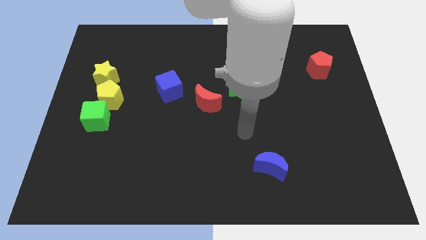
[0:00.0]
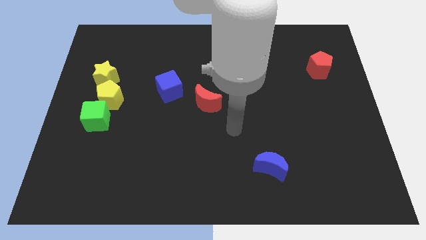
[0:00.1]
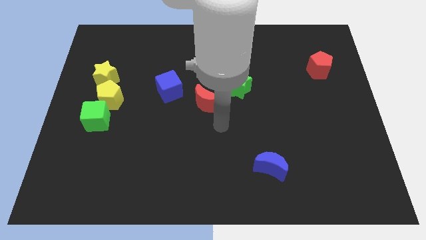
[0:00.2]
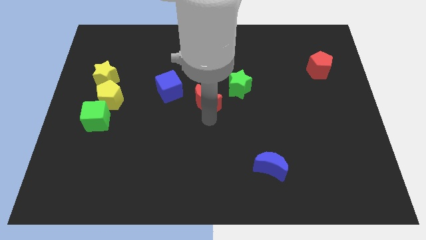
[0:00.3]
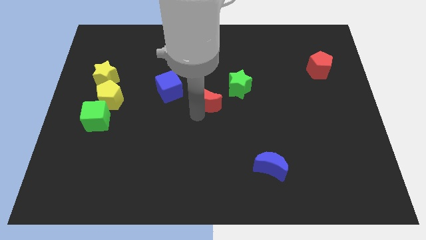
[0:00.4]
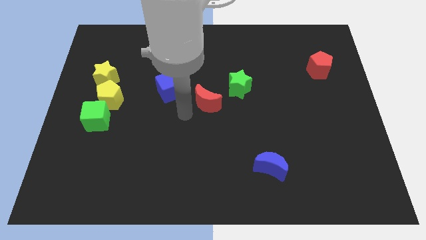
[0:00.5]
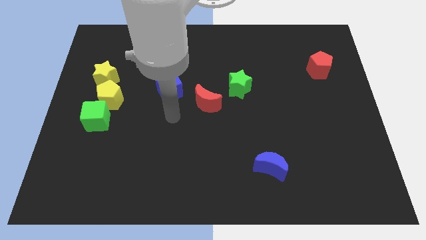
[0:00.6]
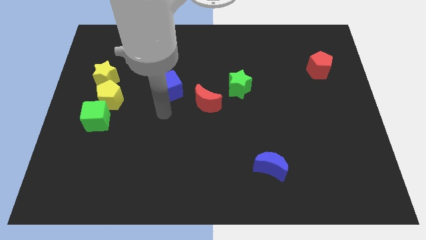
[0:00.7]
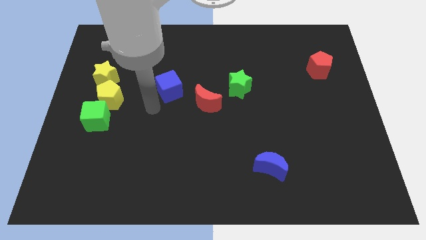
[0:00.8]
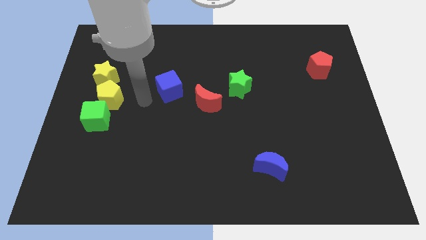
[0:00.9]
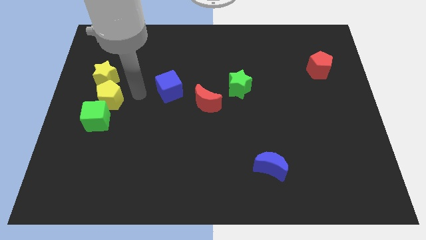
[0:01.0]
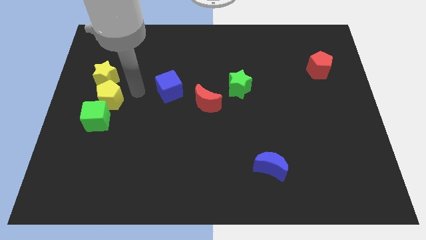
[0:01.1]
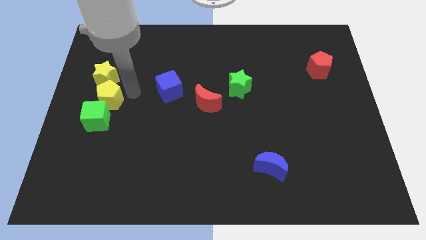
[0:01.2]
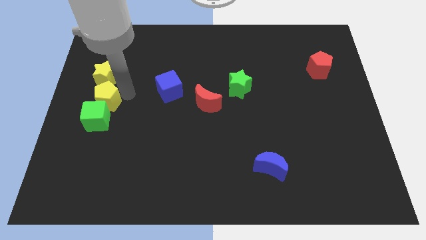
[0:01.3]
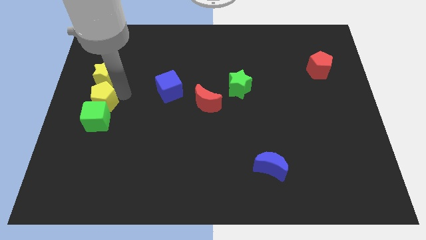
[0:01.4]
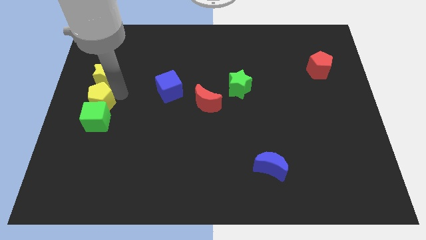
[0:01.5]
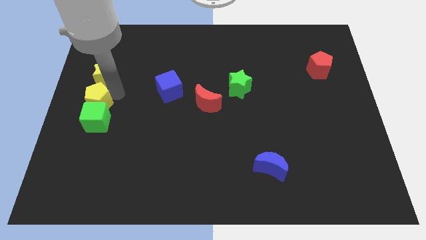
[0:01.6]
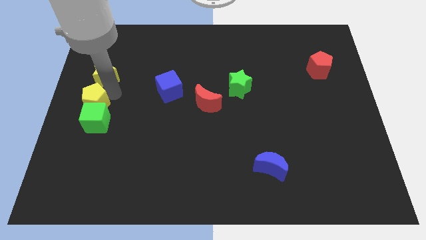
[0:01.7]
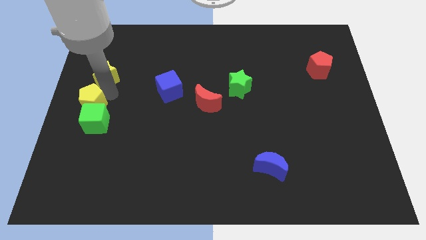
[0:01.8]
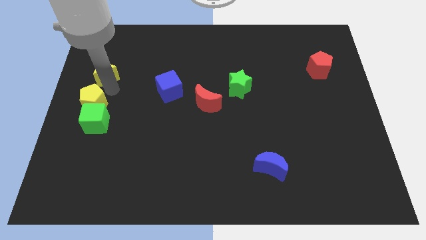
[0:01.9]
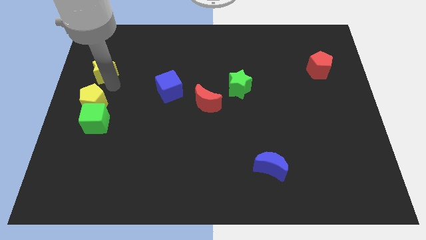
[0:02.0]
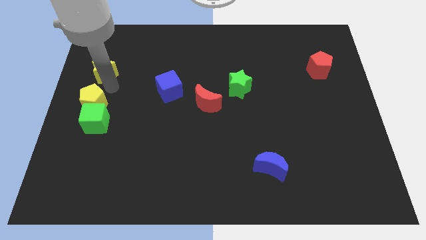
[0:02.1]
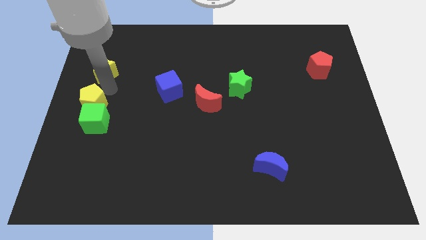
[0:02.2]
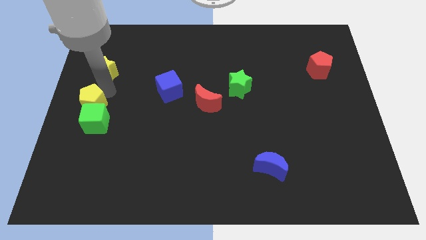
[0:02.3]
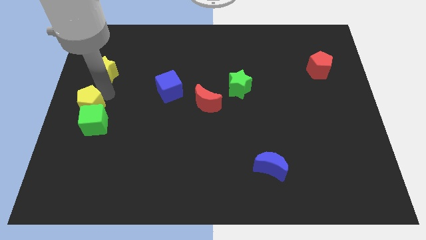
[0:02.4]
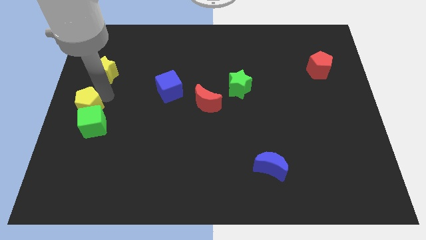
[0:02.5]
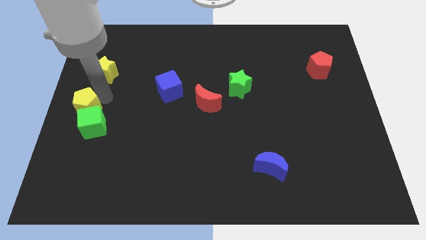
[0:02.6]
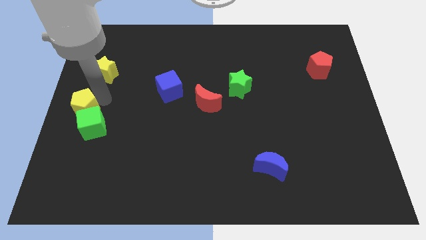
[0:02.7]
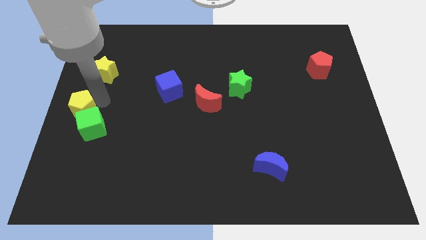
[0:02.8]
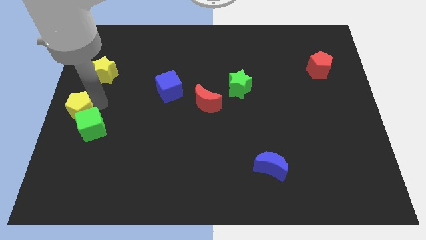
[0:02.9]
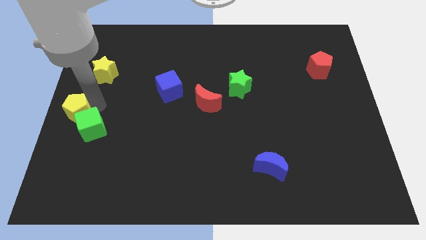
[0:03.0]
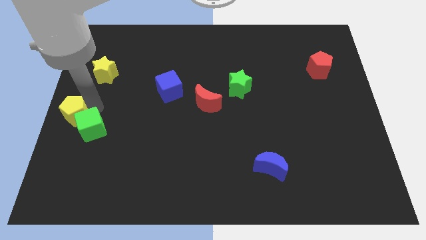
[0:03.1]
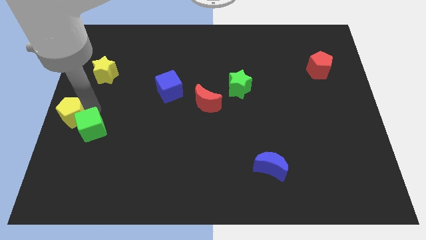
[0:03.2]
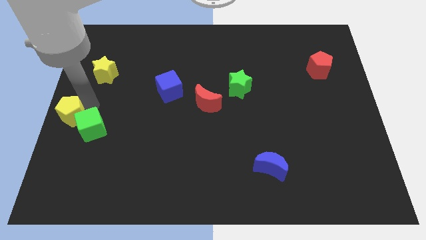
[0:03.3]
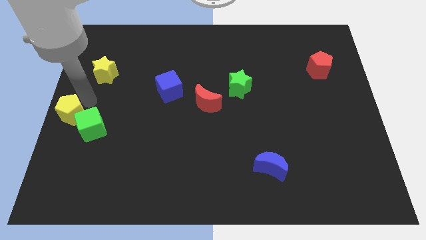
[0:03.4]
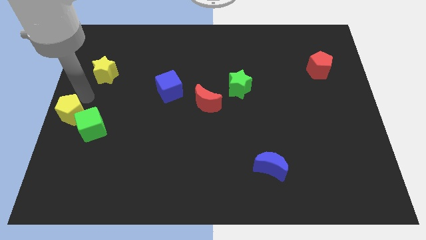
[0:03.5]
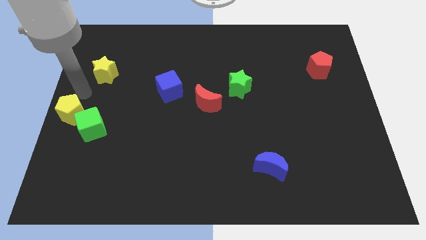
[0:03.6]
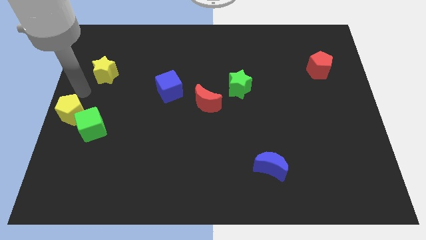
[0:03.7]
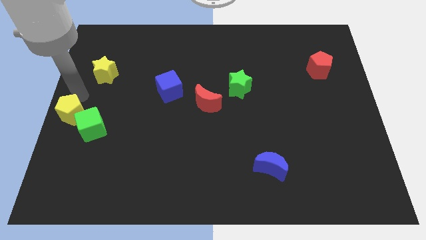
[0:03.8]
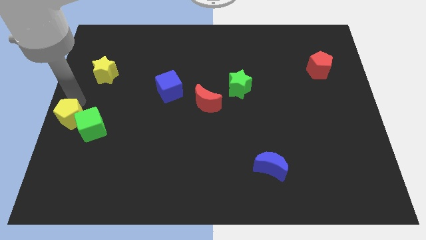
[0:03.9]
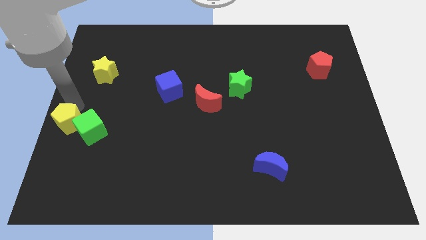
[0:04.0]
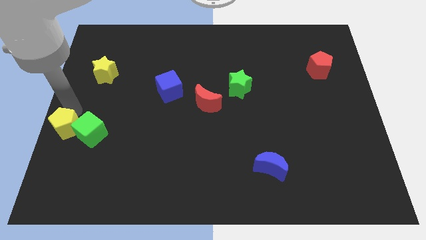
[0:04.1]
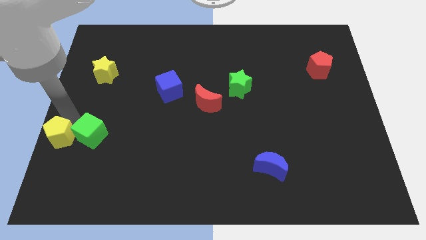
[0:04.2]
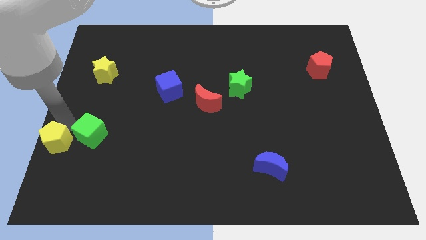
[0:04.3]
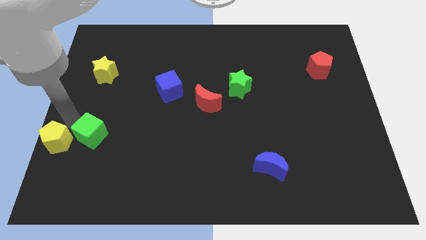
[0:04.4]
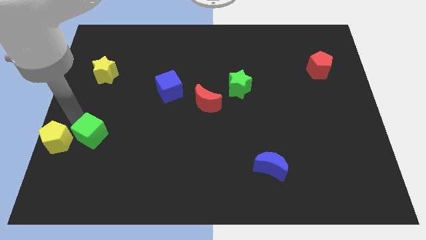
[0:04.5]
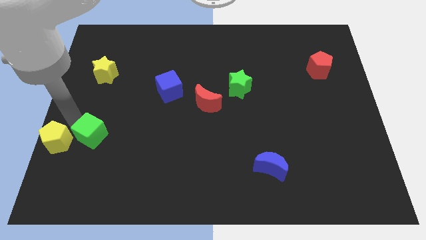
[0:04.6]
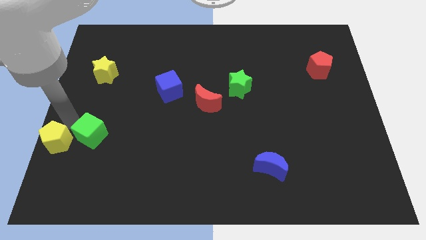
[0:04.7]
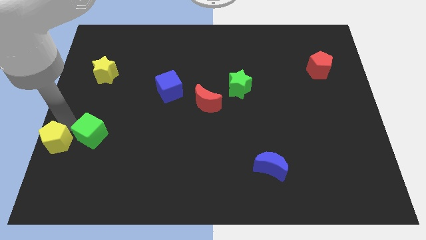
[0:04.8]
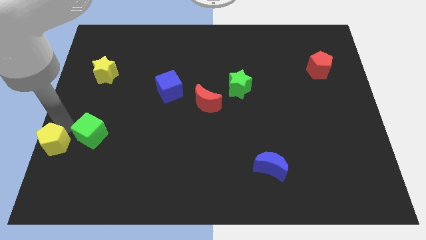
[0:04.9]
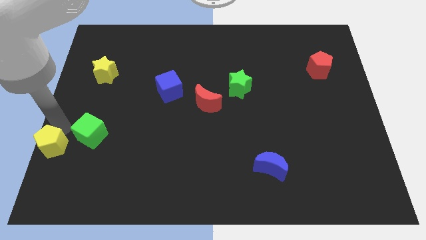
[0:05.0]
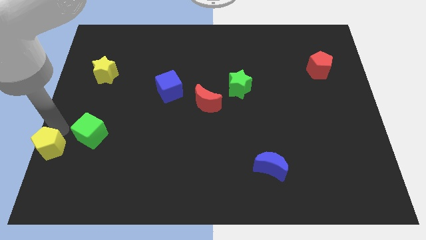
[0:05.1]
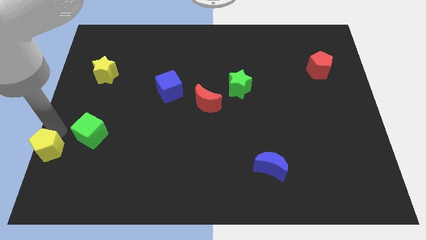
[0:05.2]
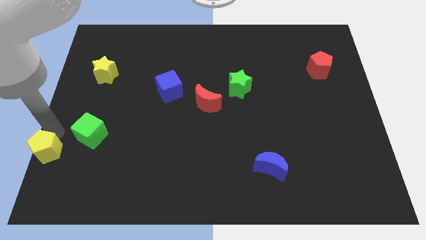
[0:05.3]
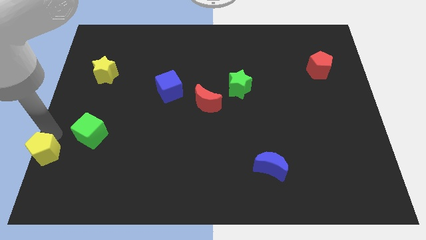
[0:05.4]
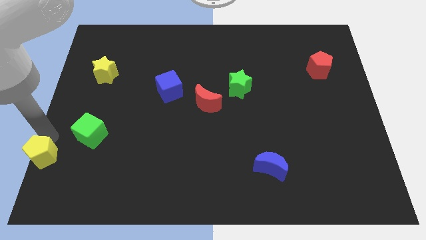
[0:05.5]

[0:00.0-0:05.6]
move the yellow pentagon to the lower left corner
